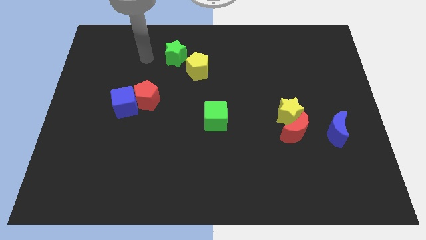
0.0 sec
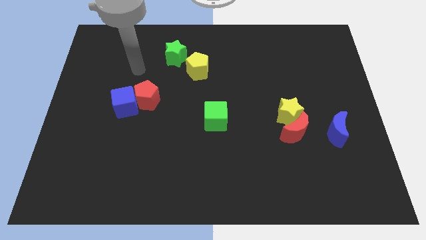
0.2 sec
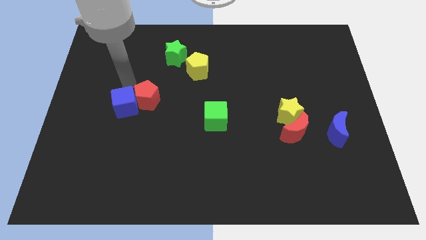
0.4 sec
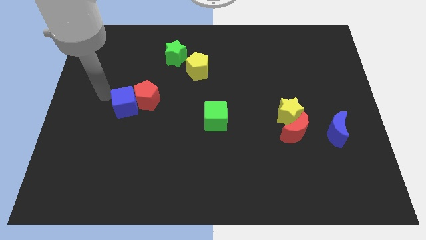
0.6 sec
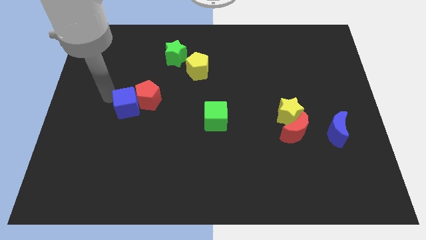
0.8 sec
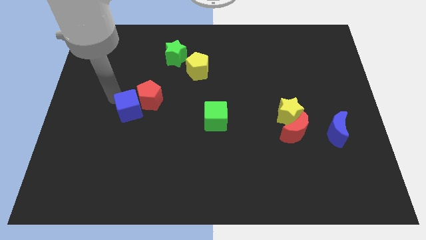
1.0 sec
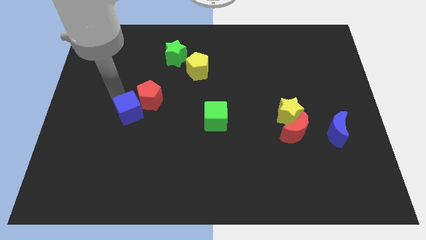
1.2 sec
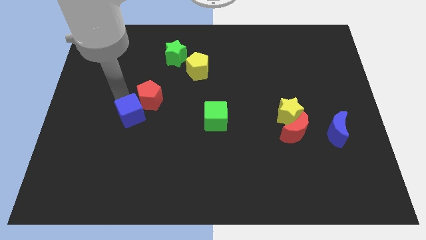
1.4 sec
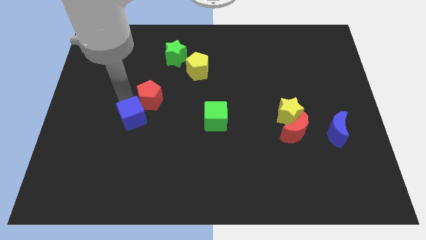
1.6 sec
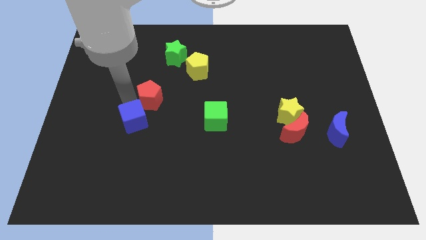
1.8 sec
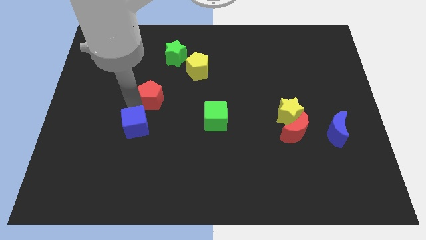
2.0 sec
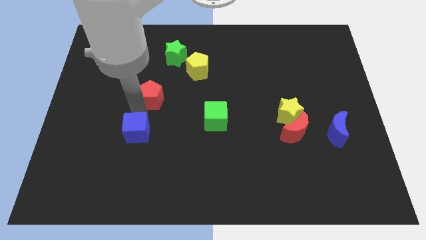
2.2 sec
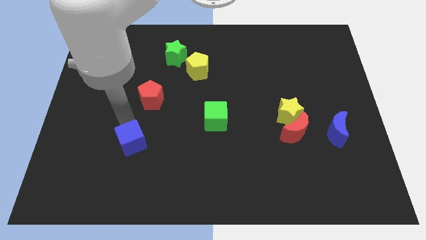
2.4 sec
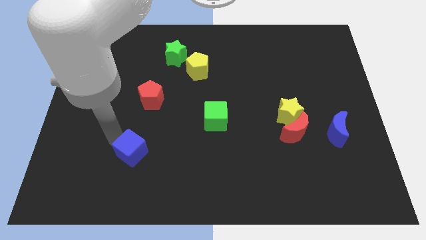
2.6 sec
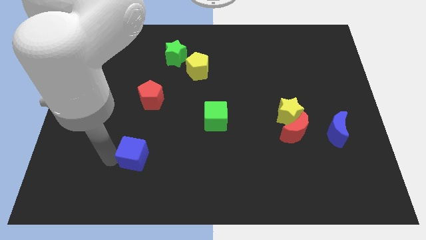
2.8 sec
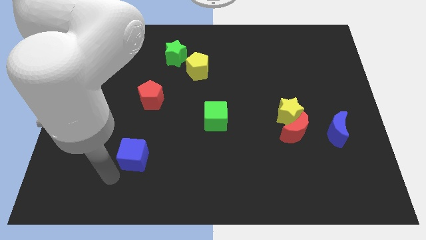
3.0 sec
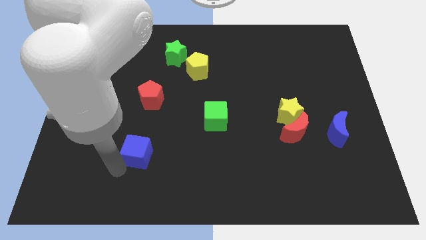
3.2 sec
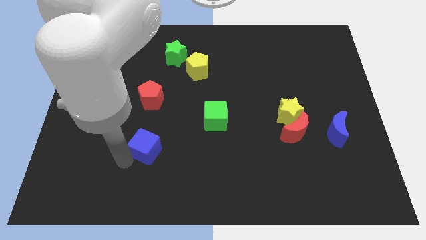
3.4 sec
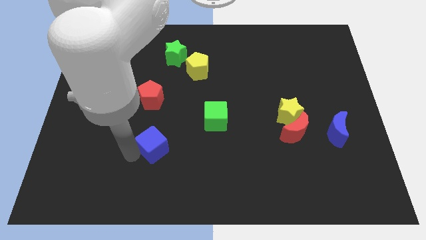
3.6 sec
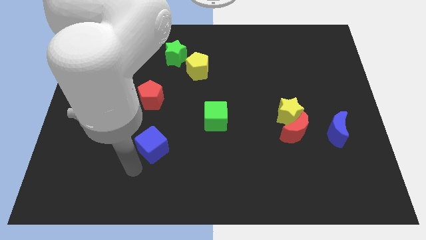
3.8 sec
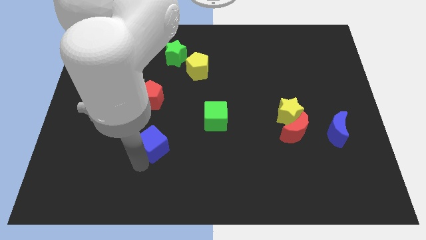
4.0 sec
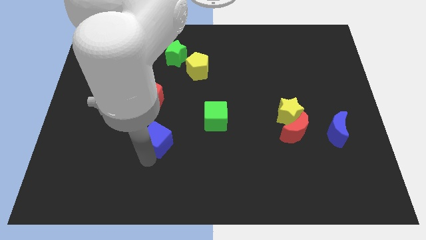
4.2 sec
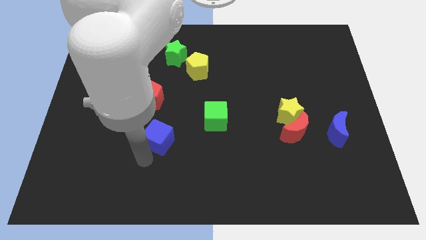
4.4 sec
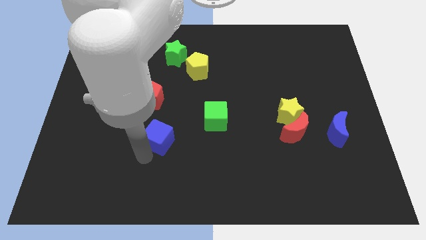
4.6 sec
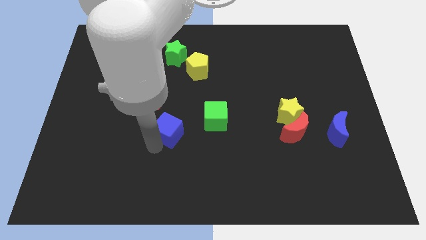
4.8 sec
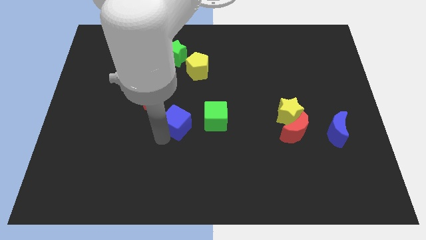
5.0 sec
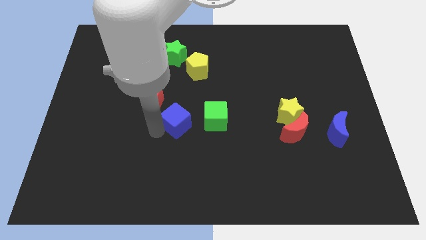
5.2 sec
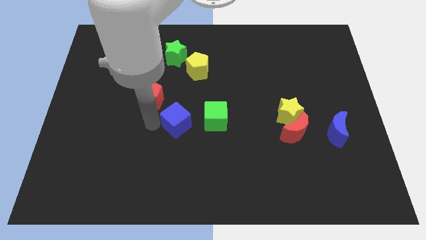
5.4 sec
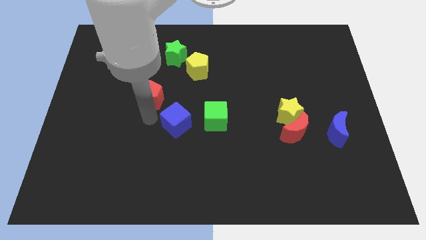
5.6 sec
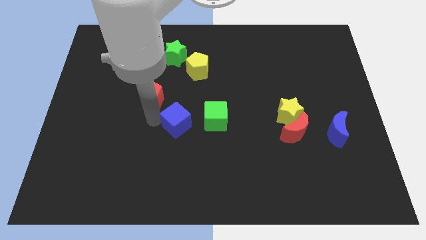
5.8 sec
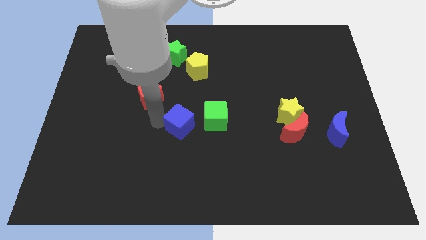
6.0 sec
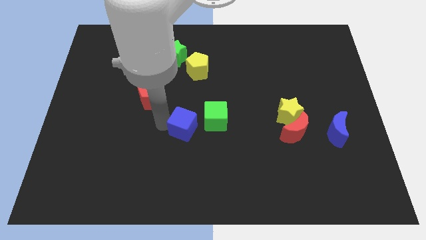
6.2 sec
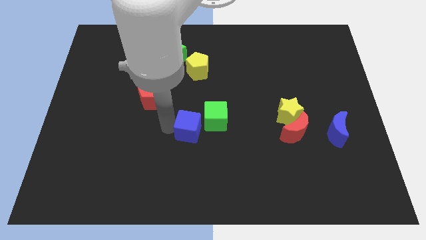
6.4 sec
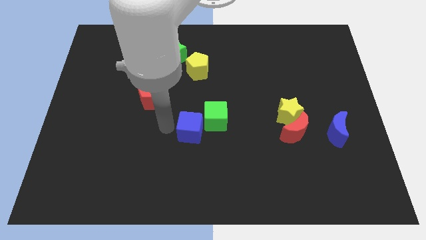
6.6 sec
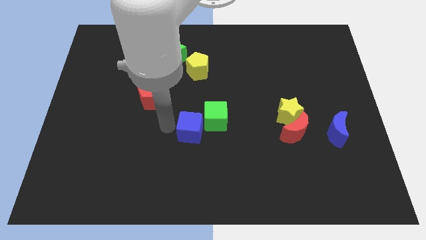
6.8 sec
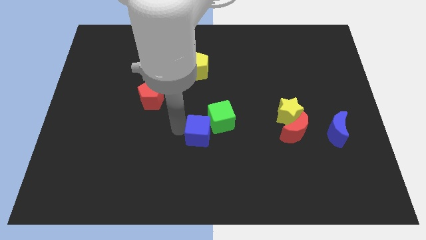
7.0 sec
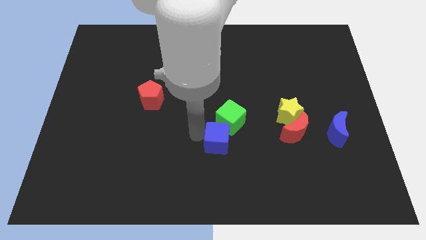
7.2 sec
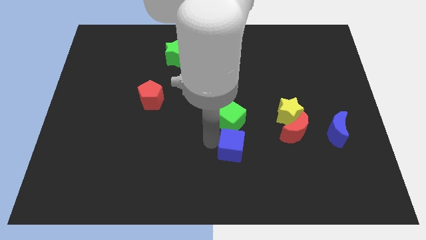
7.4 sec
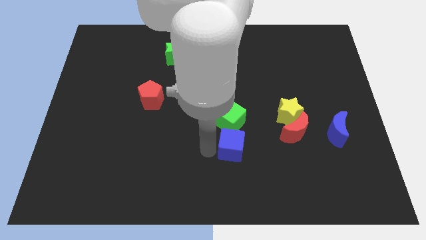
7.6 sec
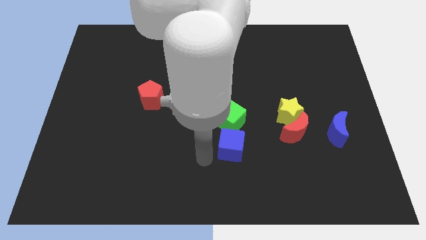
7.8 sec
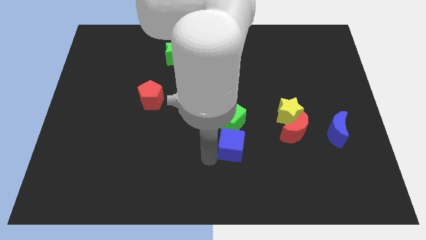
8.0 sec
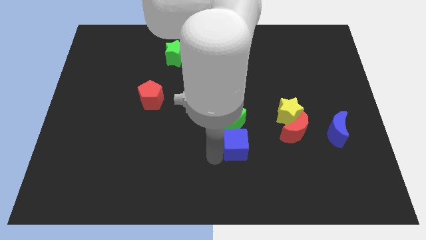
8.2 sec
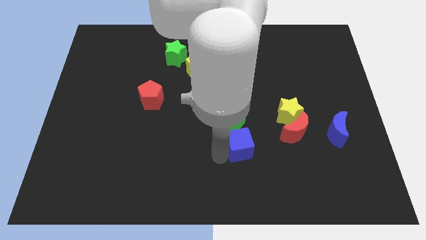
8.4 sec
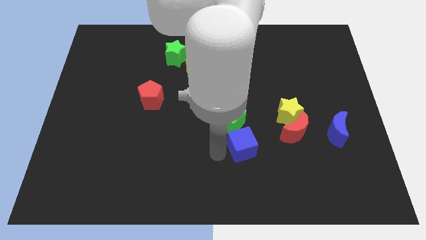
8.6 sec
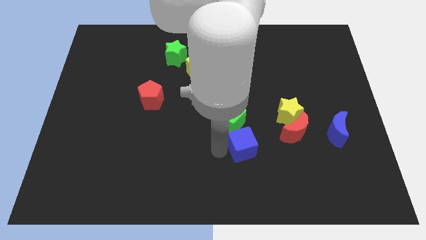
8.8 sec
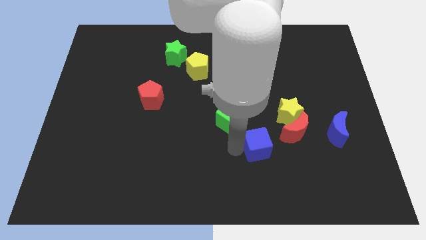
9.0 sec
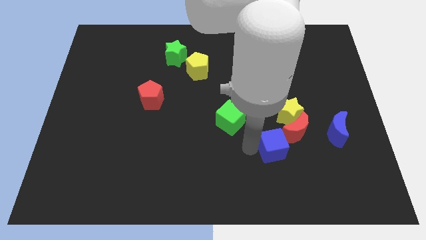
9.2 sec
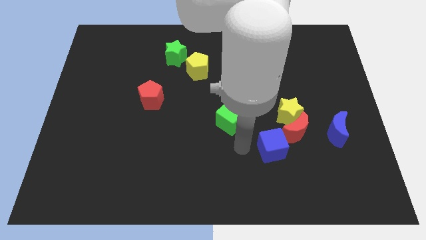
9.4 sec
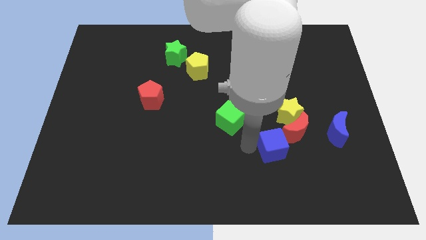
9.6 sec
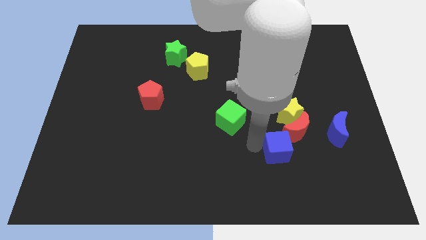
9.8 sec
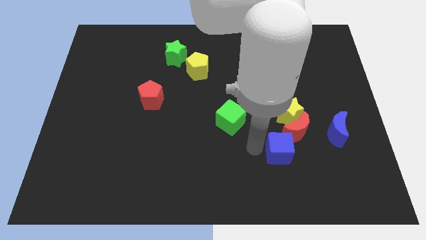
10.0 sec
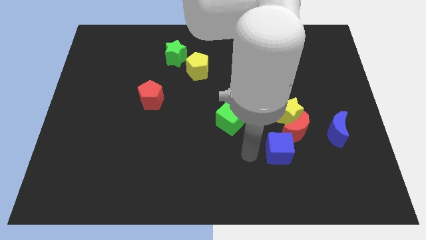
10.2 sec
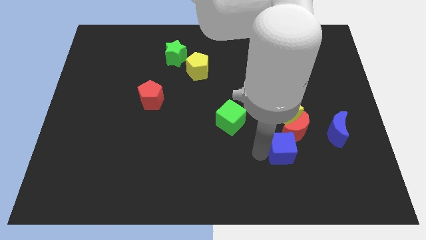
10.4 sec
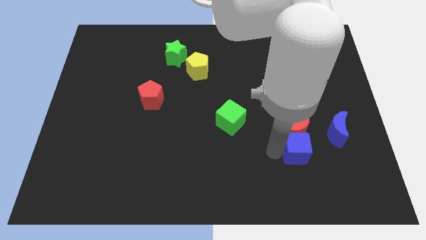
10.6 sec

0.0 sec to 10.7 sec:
slide the blue cube to the bottom left of the blue moon

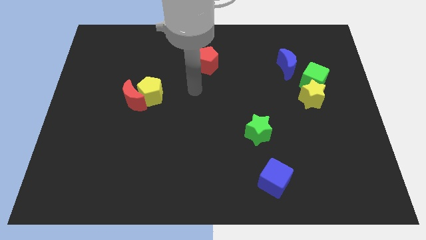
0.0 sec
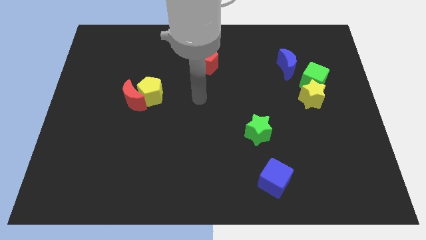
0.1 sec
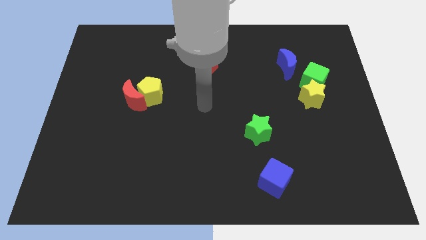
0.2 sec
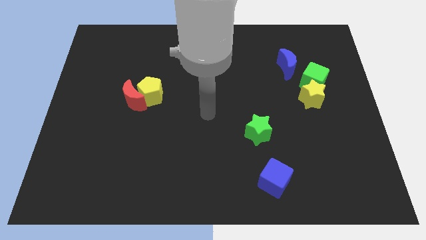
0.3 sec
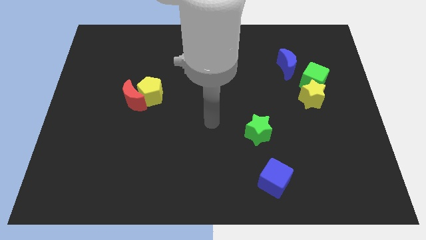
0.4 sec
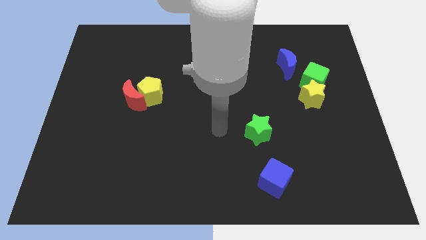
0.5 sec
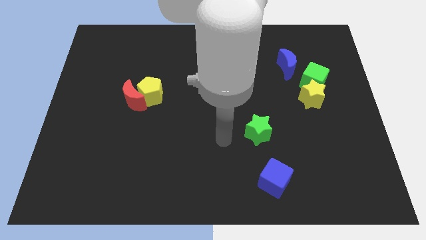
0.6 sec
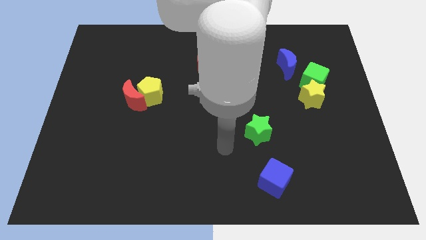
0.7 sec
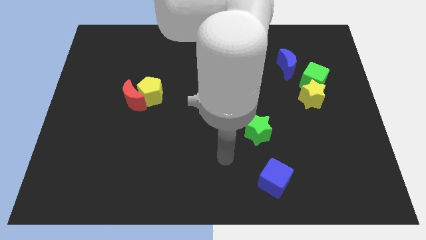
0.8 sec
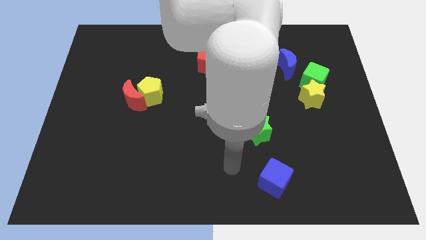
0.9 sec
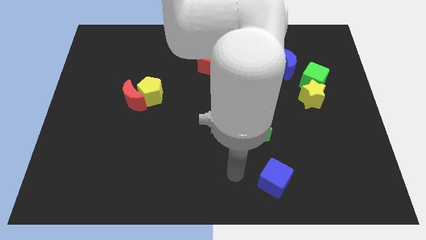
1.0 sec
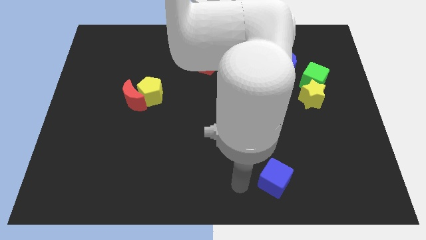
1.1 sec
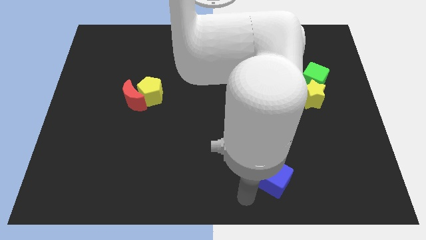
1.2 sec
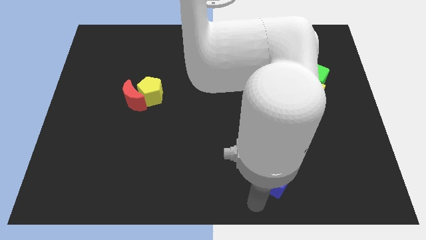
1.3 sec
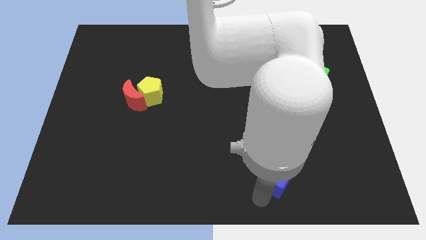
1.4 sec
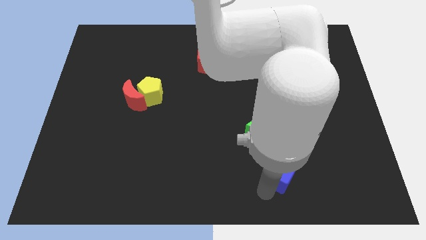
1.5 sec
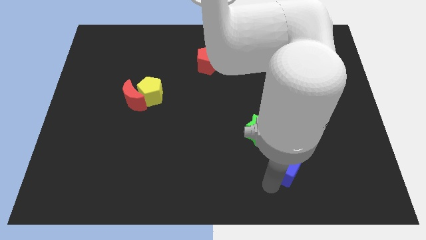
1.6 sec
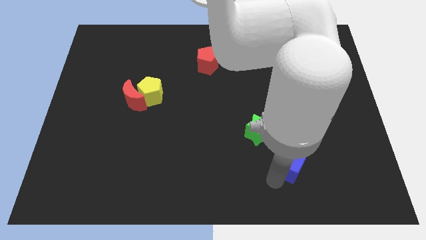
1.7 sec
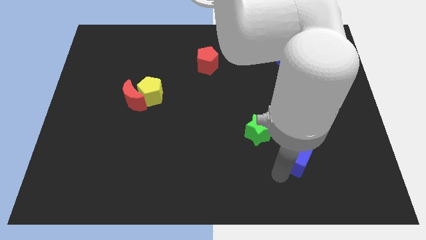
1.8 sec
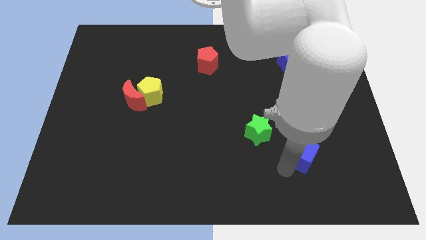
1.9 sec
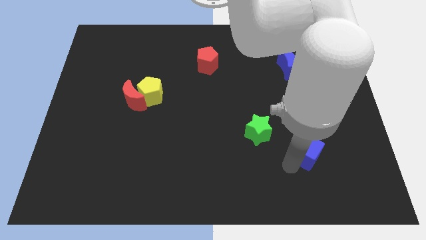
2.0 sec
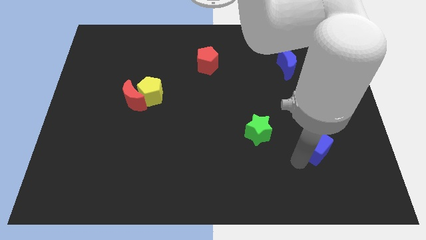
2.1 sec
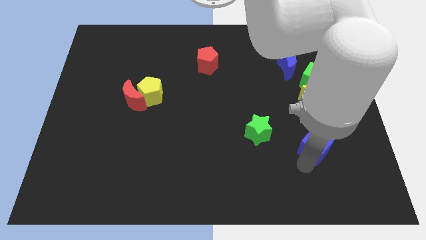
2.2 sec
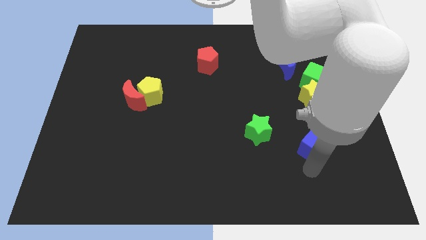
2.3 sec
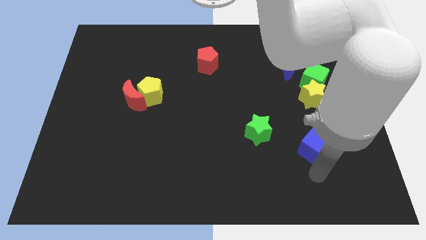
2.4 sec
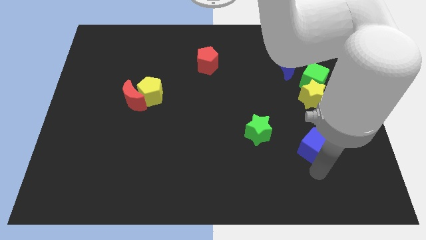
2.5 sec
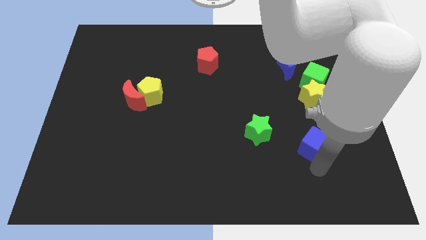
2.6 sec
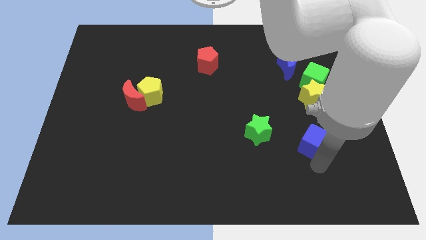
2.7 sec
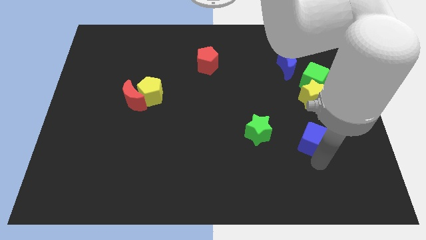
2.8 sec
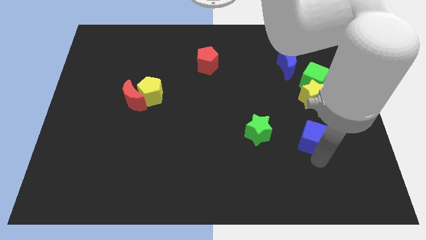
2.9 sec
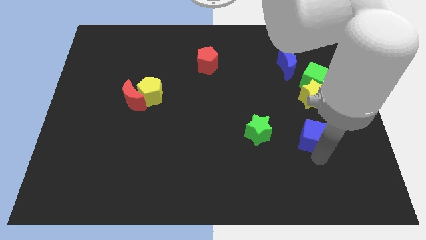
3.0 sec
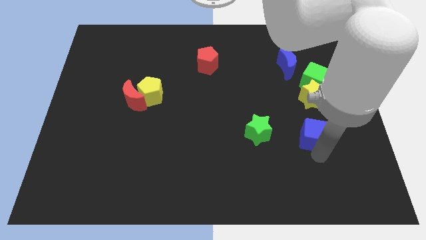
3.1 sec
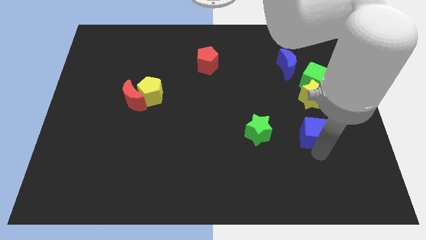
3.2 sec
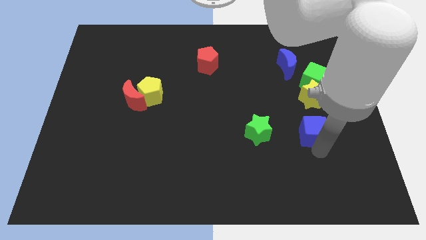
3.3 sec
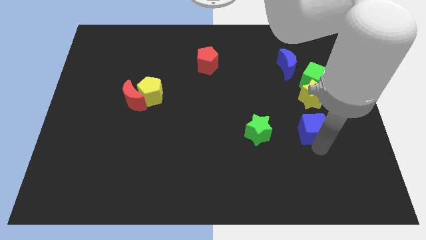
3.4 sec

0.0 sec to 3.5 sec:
slide the blue cube below the green cube

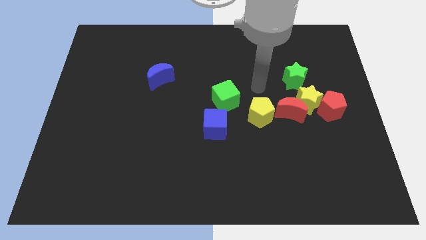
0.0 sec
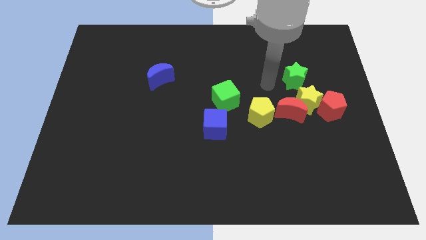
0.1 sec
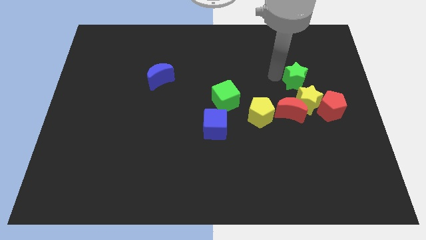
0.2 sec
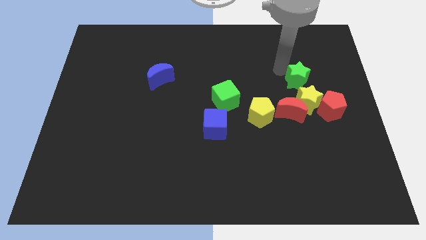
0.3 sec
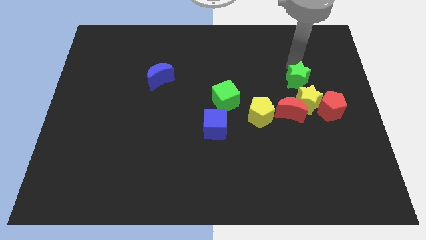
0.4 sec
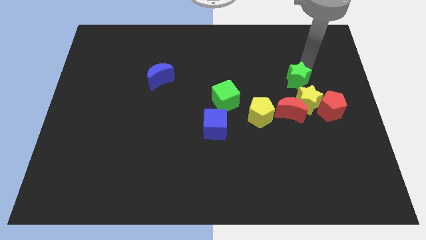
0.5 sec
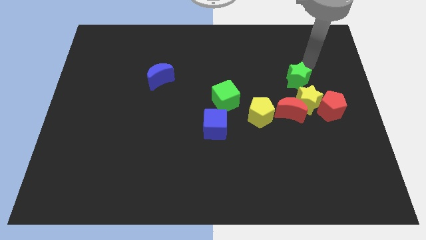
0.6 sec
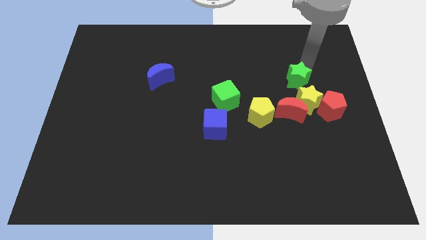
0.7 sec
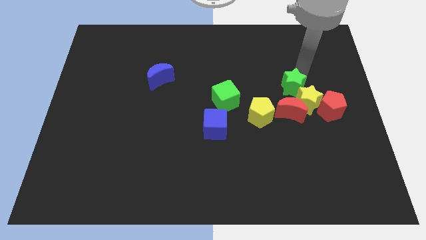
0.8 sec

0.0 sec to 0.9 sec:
slide the green star to the top right of the yellow pentagon
